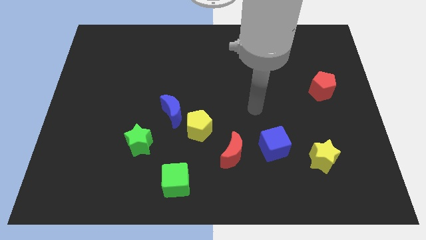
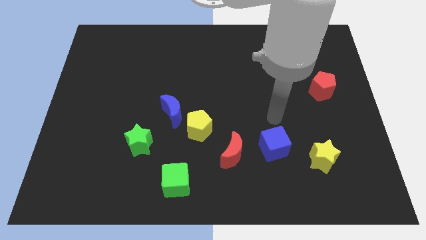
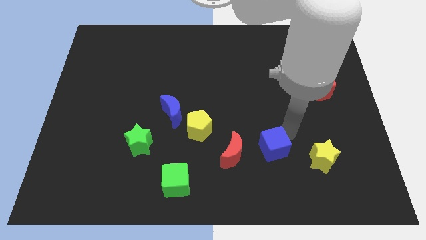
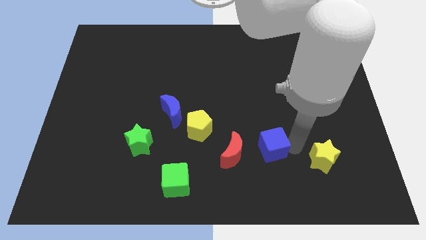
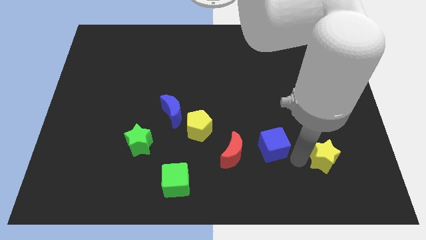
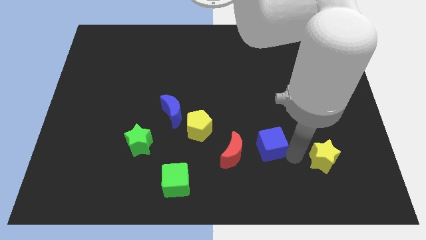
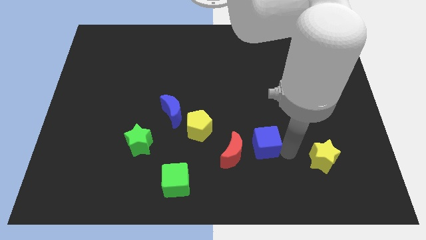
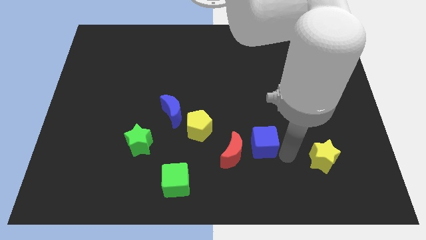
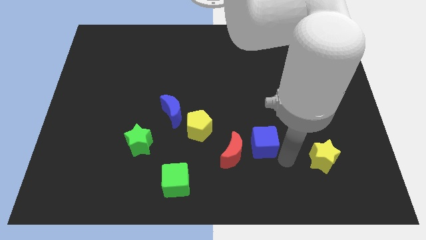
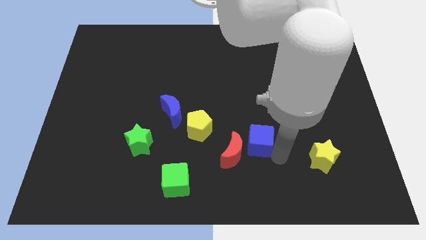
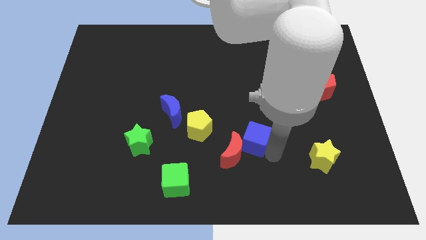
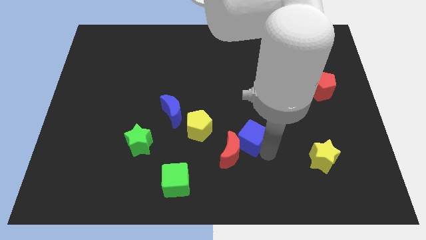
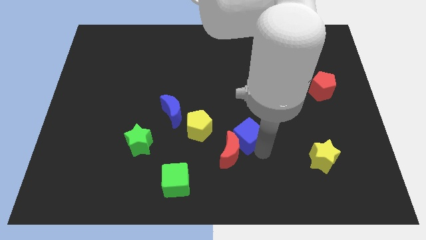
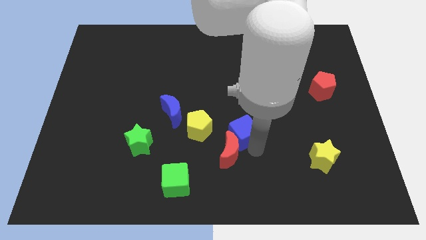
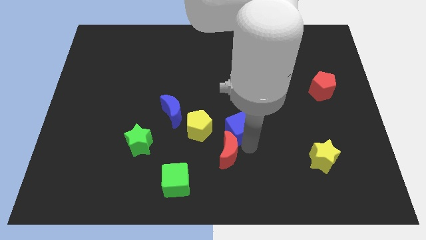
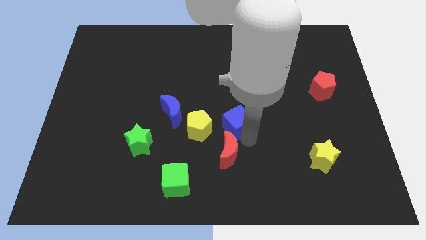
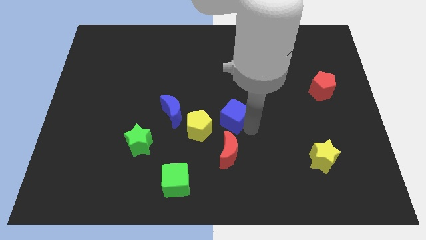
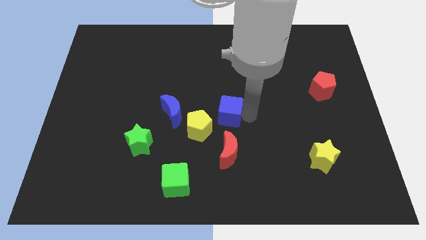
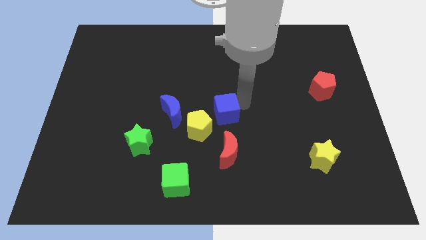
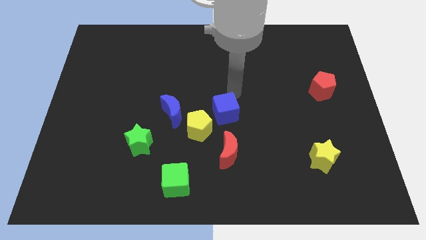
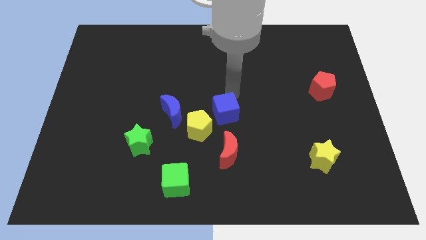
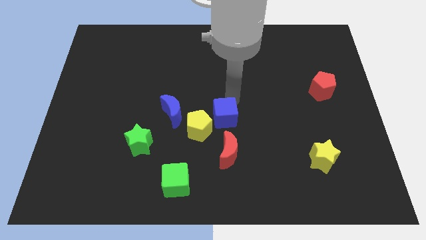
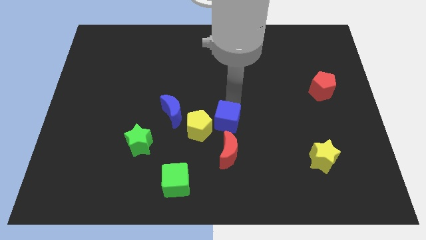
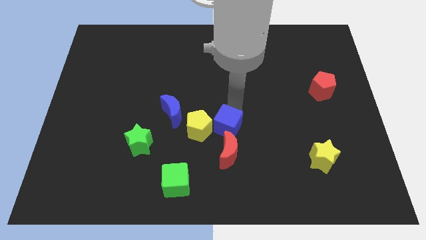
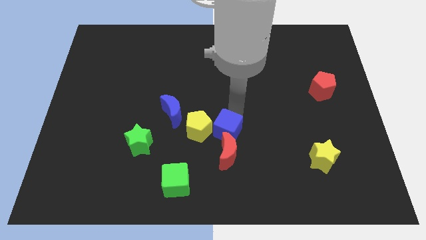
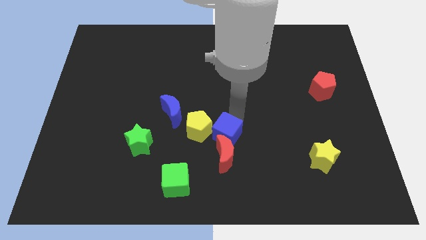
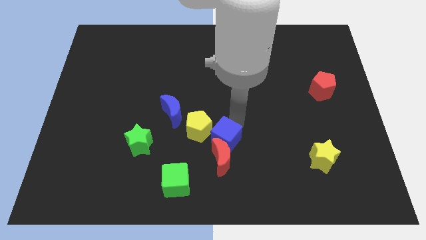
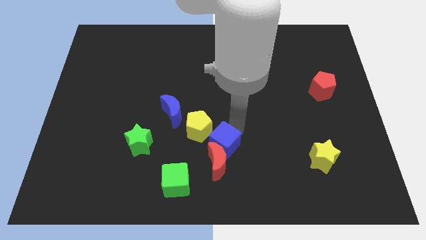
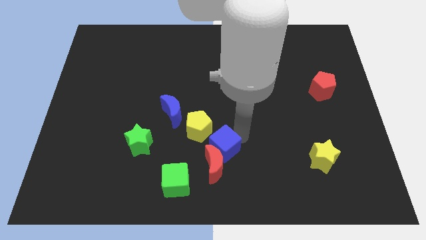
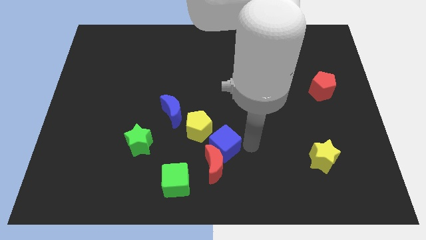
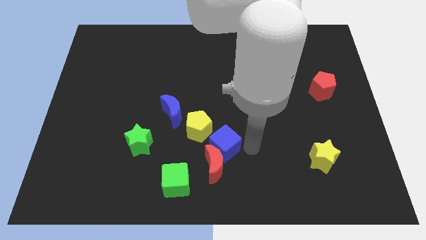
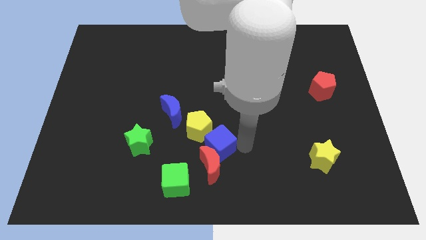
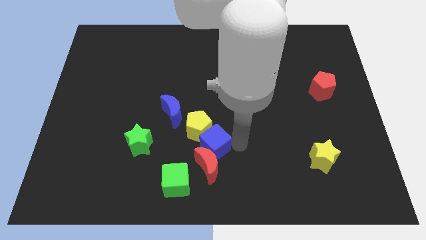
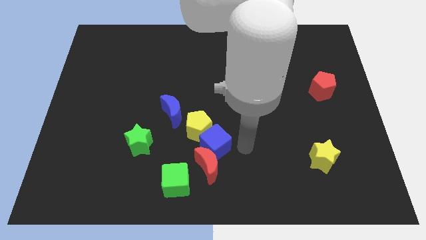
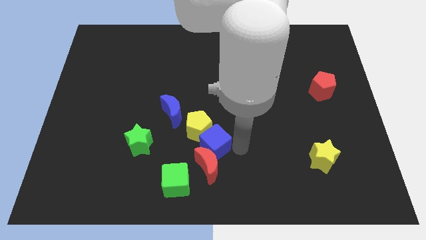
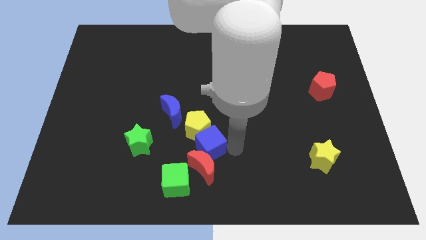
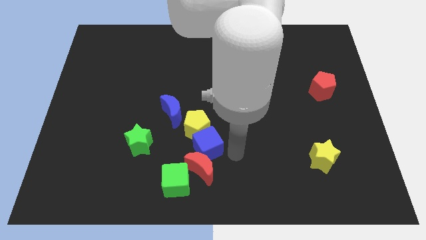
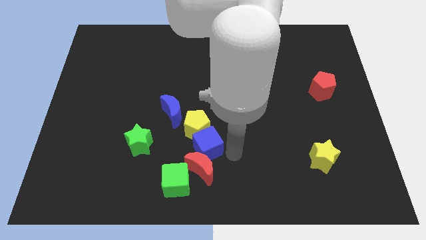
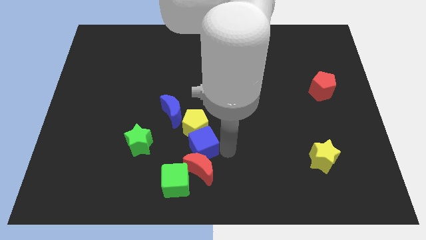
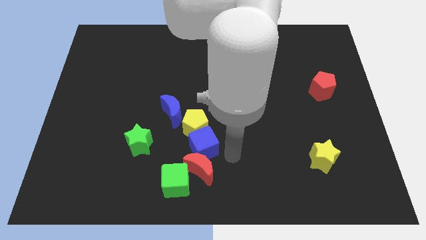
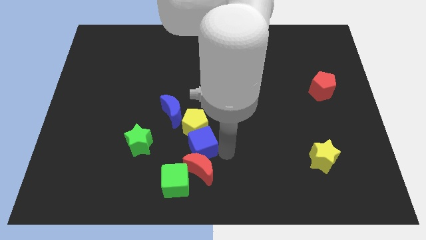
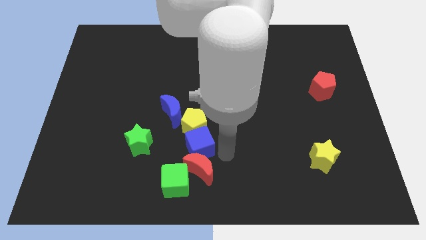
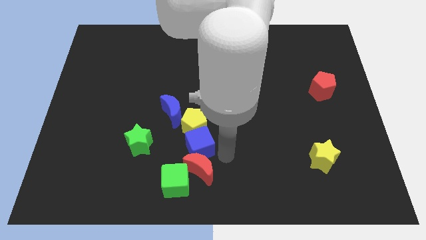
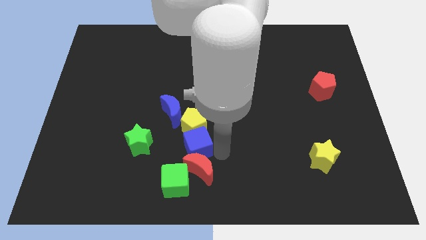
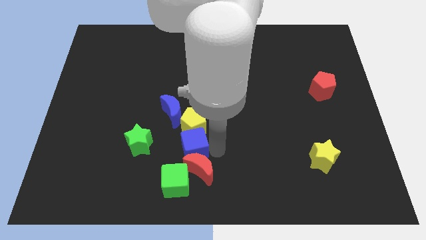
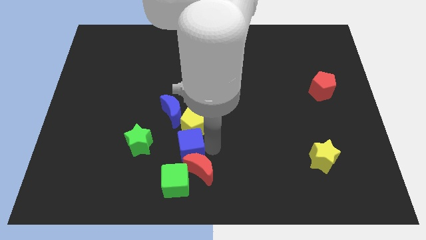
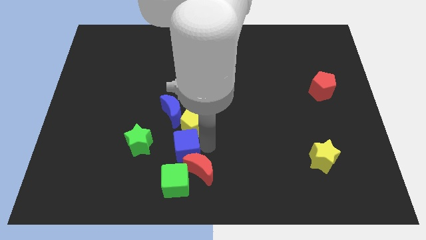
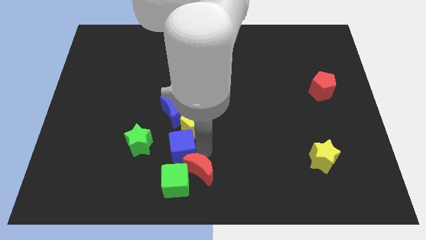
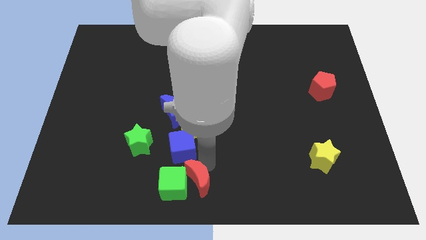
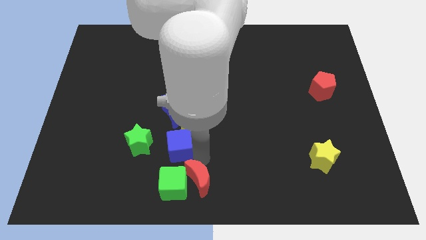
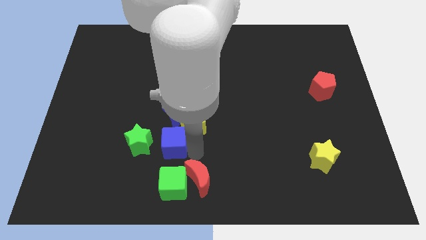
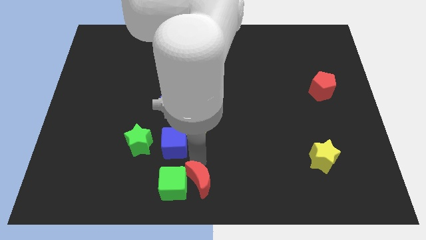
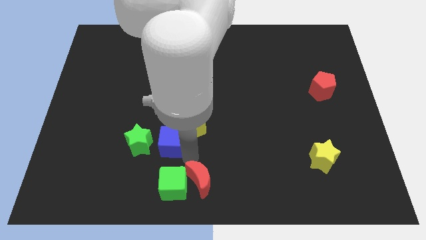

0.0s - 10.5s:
slide the blue cube to the left side of the yellow pentagon

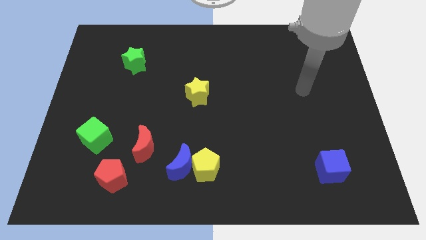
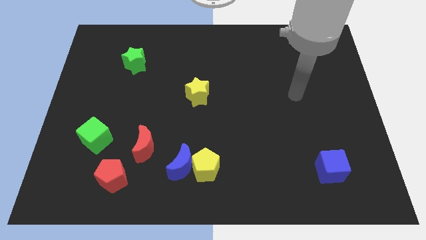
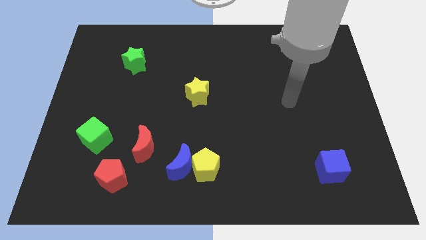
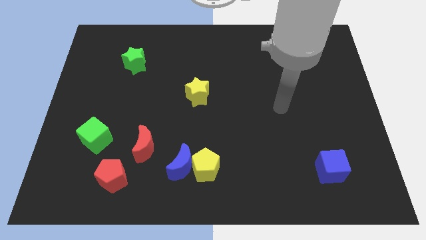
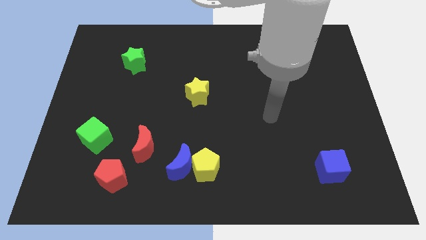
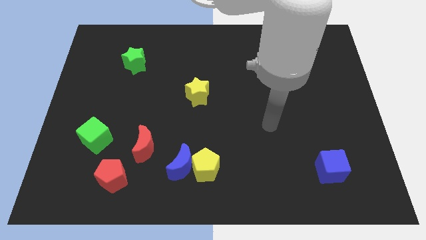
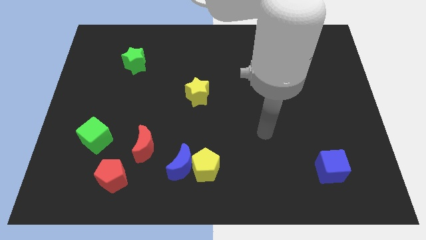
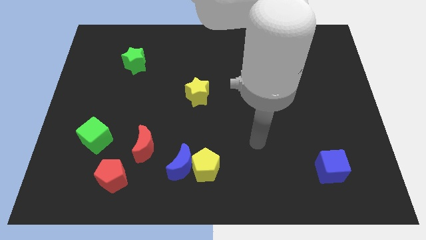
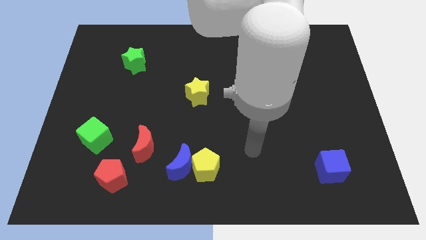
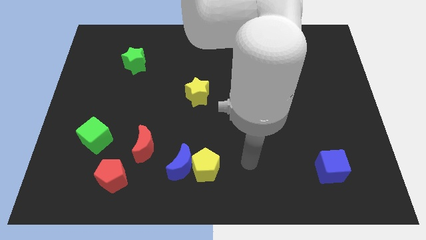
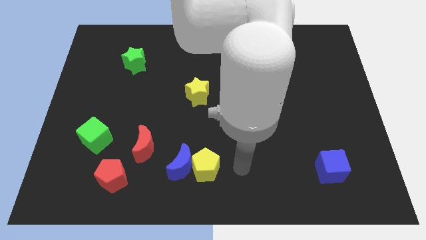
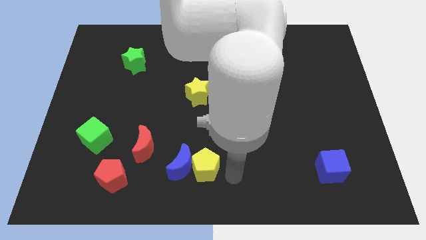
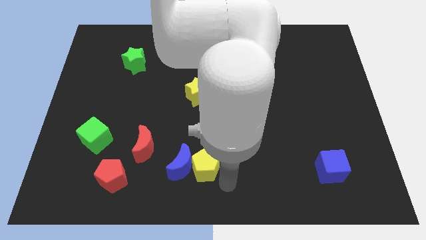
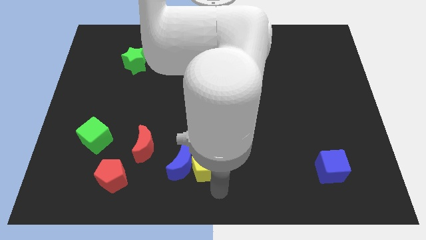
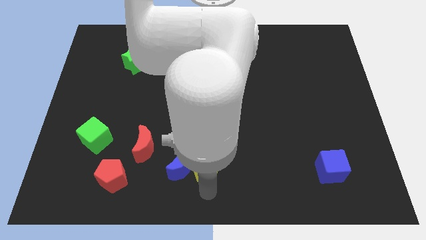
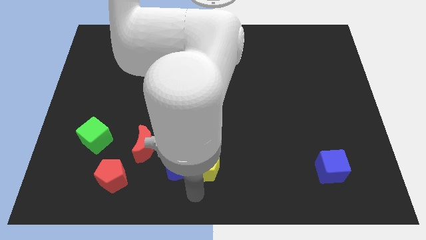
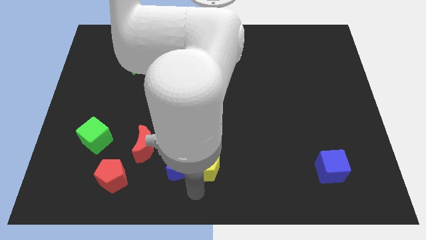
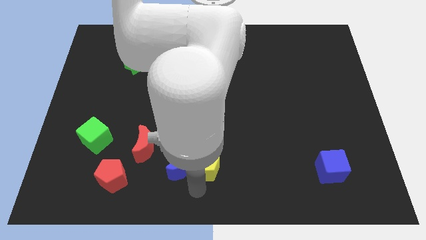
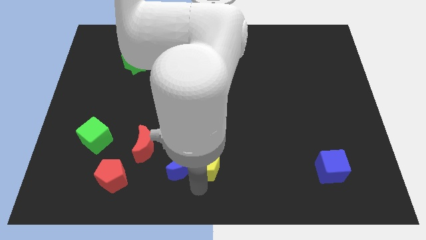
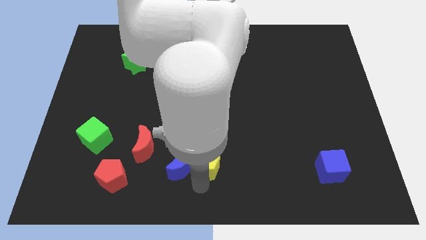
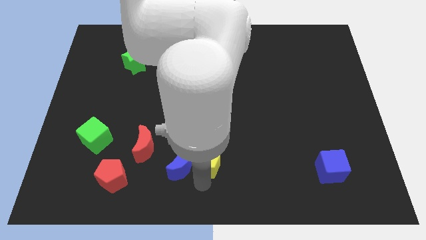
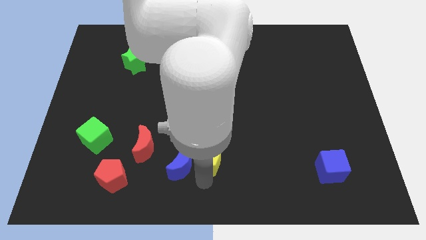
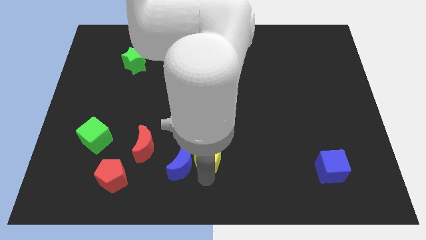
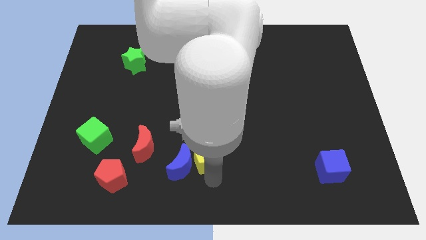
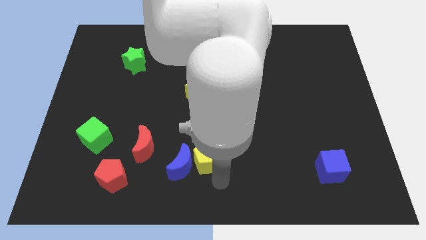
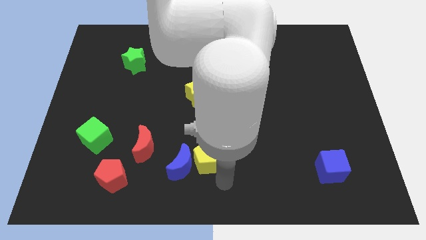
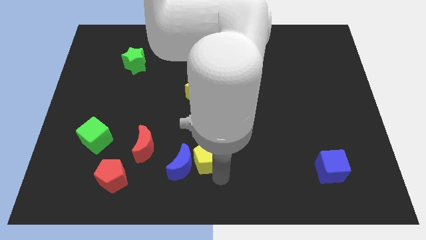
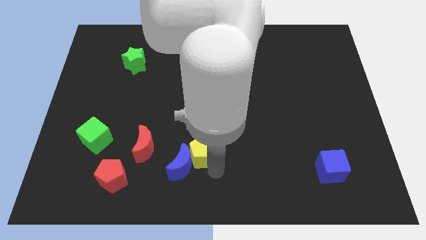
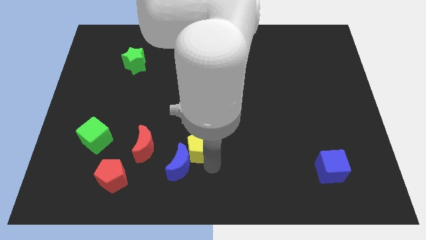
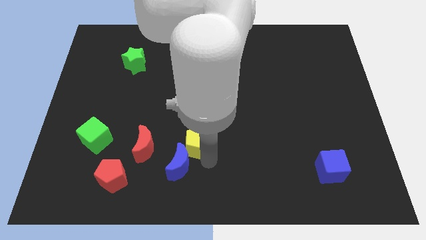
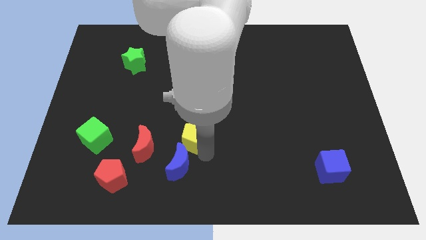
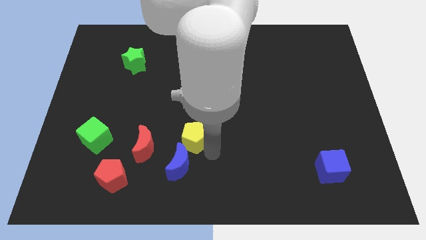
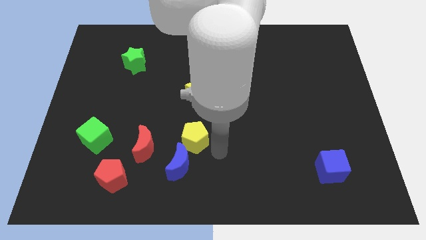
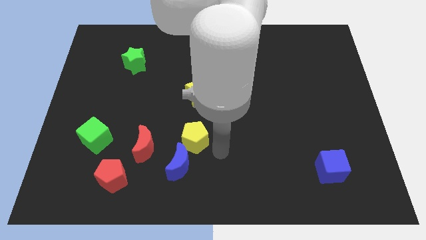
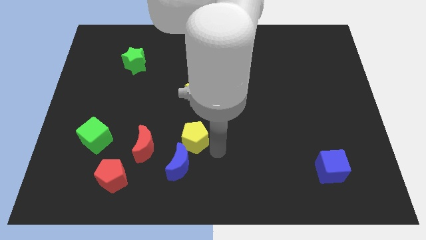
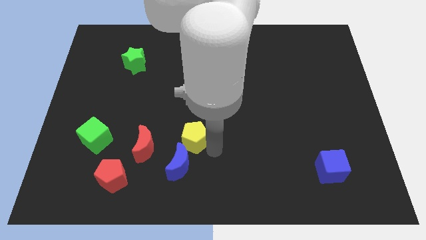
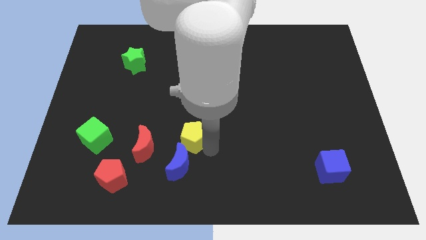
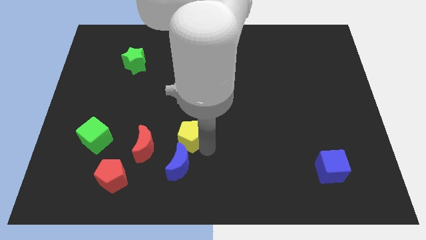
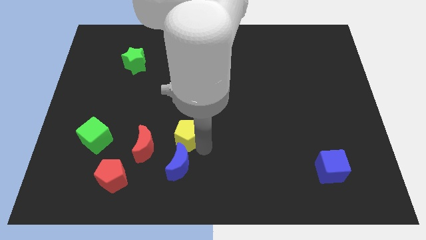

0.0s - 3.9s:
slide the yellow pentagon diagonally up and to the right of the red moon
